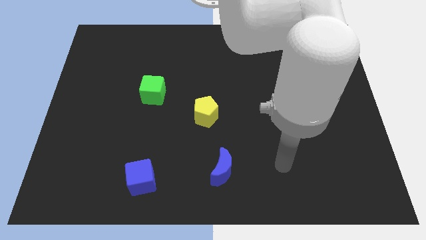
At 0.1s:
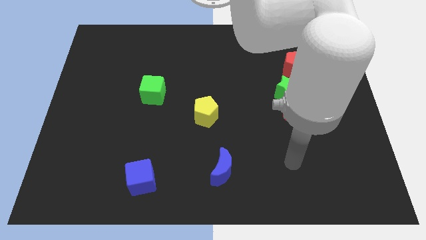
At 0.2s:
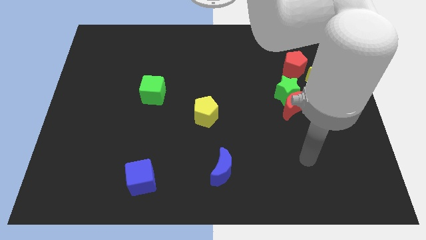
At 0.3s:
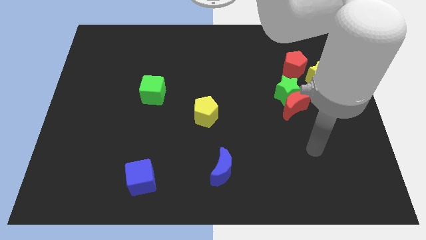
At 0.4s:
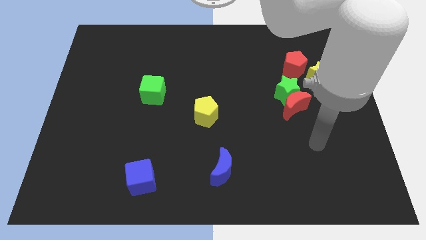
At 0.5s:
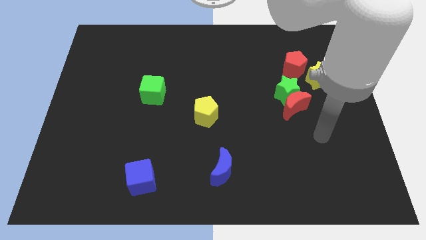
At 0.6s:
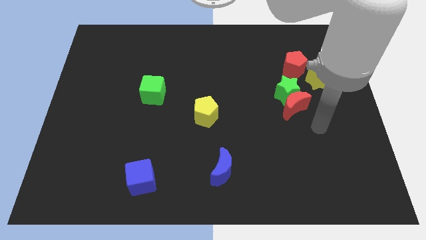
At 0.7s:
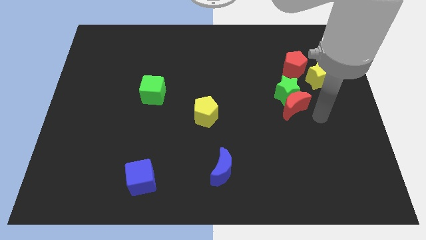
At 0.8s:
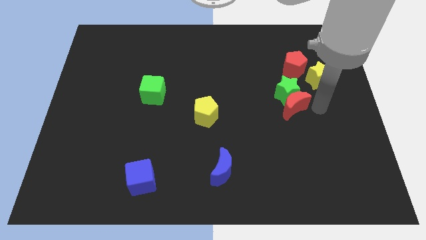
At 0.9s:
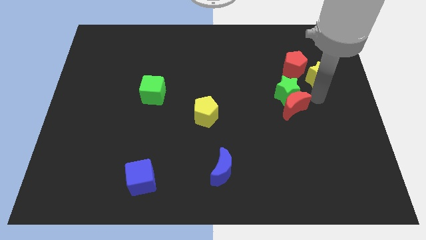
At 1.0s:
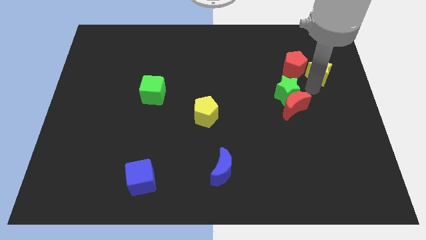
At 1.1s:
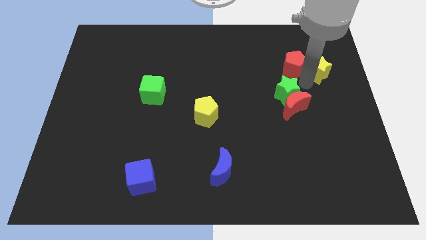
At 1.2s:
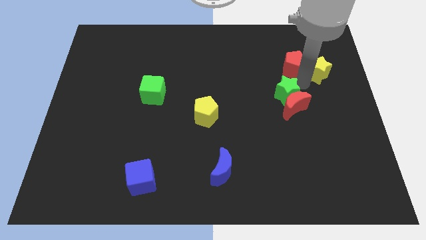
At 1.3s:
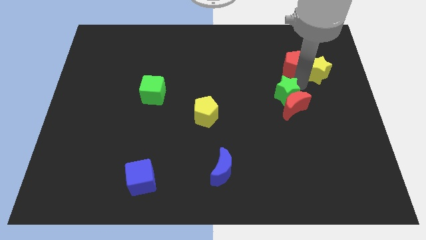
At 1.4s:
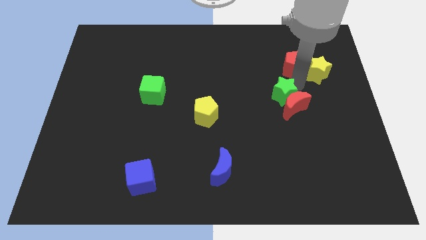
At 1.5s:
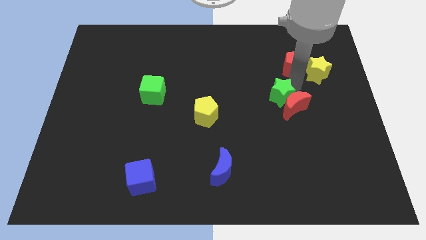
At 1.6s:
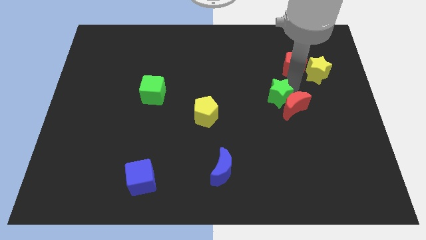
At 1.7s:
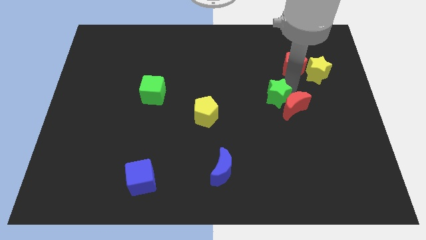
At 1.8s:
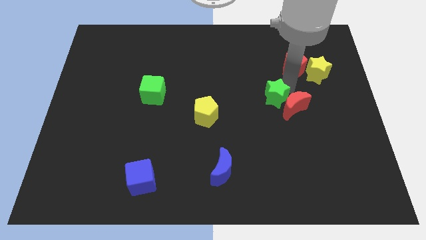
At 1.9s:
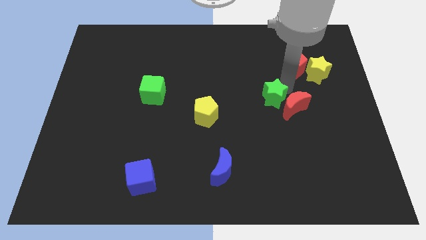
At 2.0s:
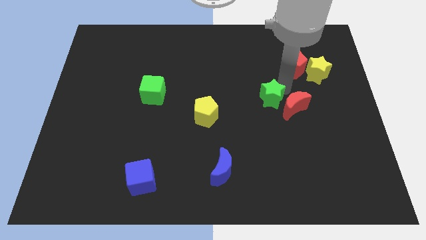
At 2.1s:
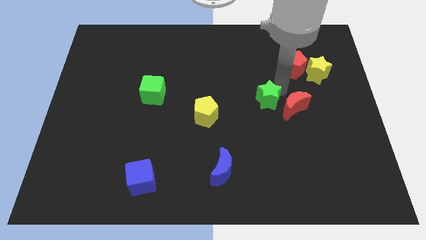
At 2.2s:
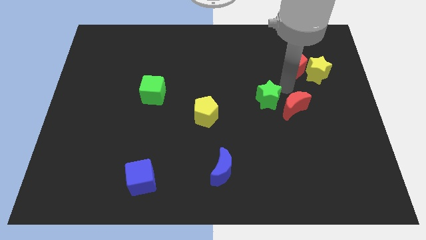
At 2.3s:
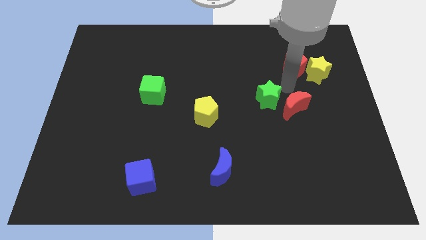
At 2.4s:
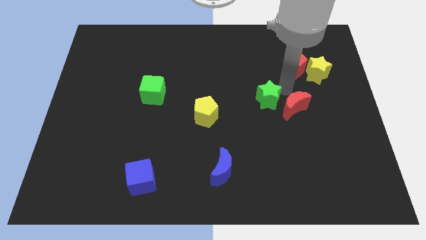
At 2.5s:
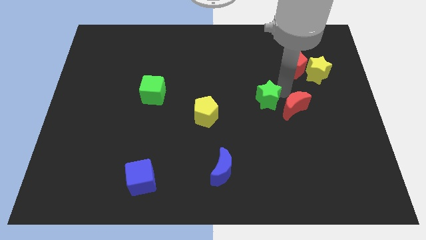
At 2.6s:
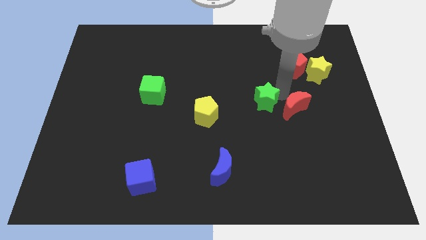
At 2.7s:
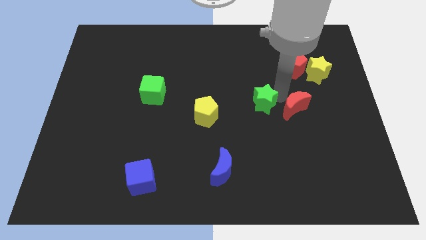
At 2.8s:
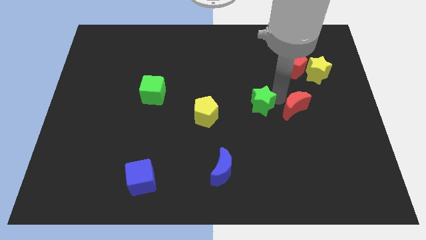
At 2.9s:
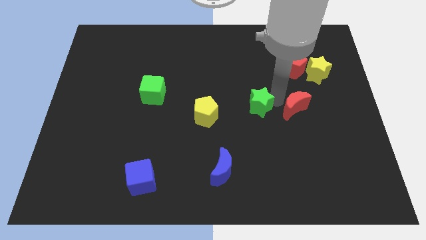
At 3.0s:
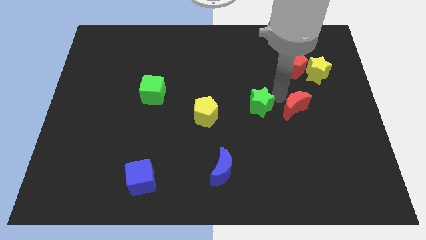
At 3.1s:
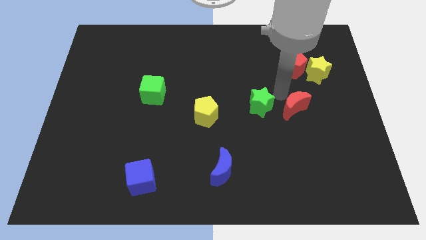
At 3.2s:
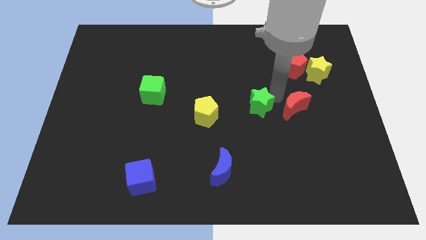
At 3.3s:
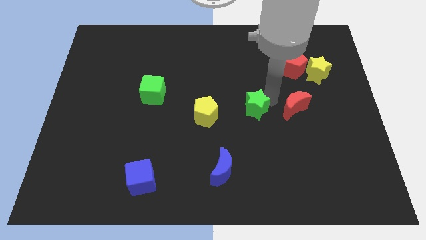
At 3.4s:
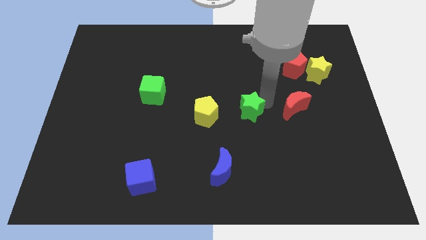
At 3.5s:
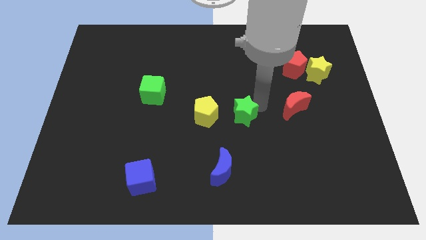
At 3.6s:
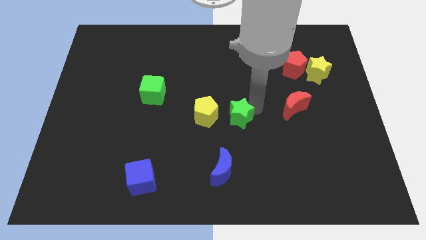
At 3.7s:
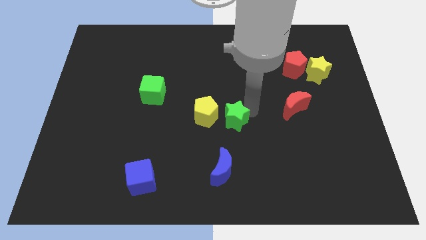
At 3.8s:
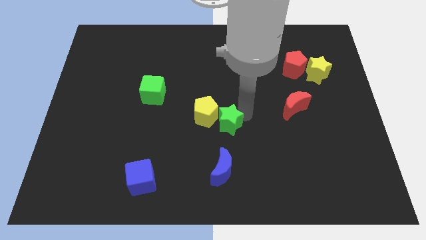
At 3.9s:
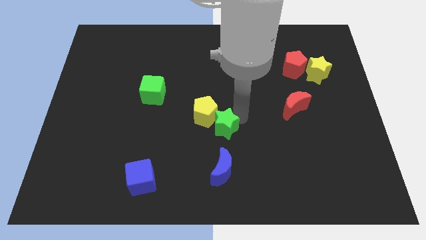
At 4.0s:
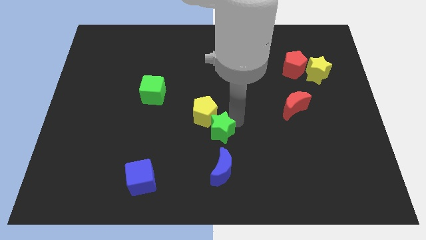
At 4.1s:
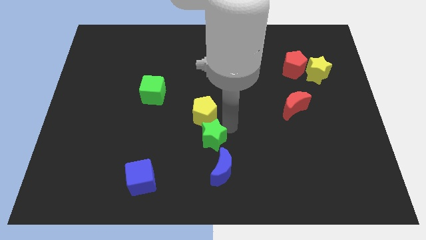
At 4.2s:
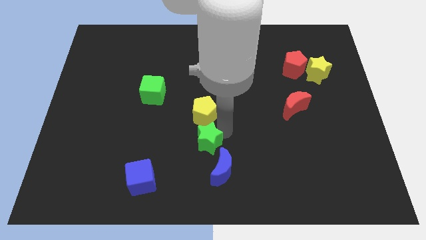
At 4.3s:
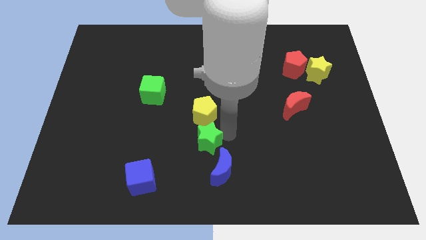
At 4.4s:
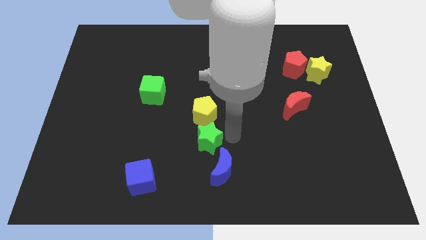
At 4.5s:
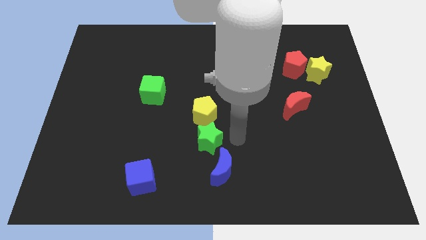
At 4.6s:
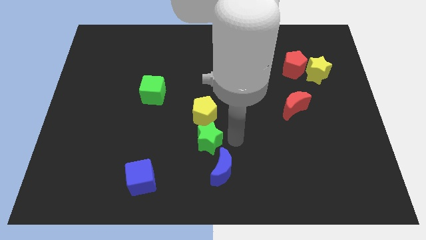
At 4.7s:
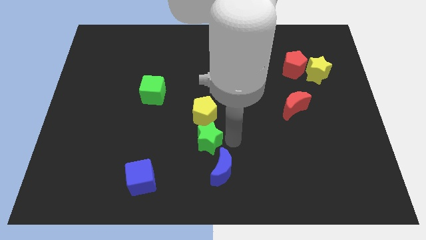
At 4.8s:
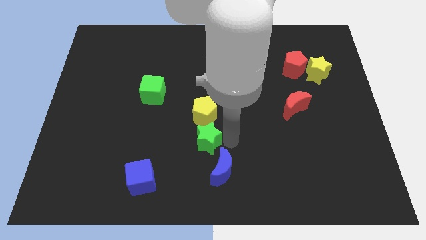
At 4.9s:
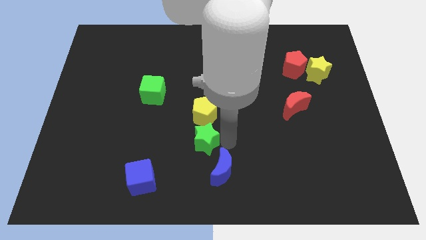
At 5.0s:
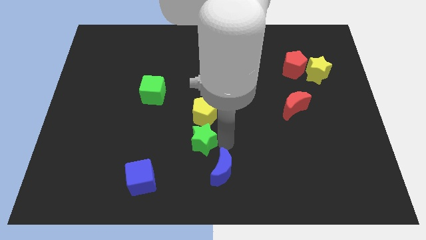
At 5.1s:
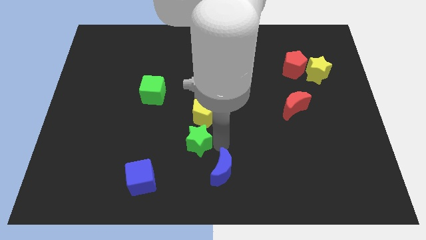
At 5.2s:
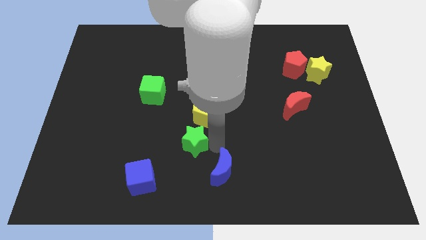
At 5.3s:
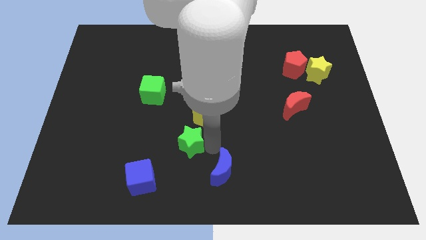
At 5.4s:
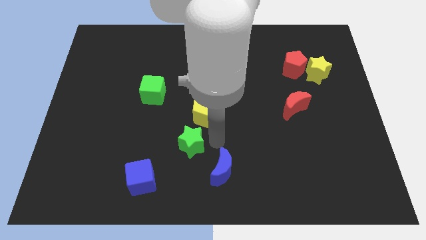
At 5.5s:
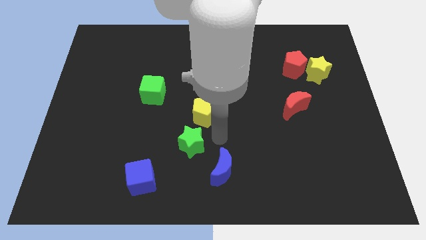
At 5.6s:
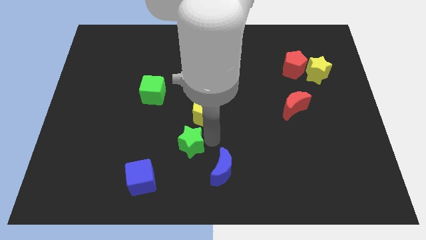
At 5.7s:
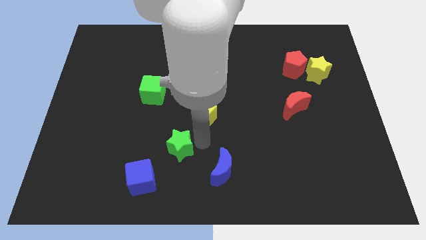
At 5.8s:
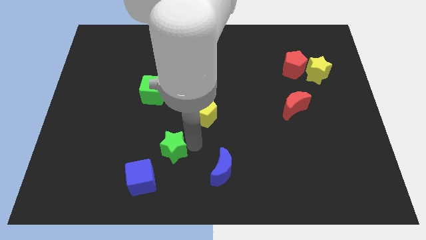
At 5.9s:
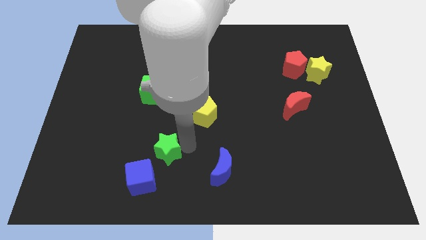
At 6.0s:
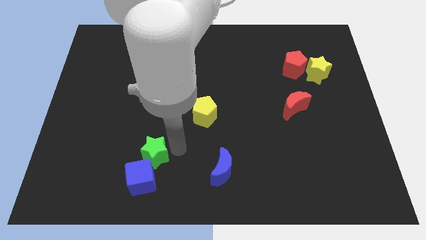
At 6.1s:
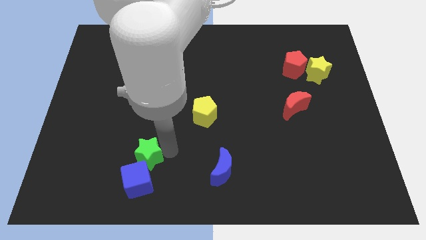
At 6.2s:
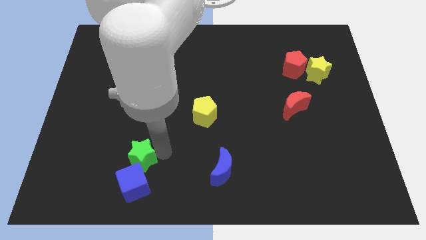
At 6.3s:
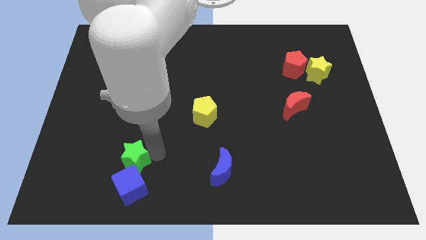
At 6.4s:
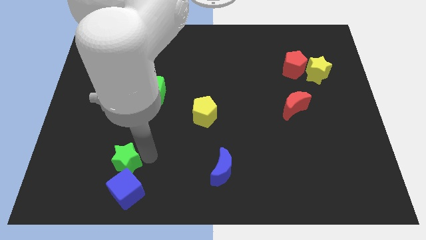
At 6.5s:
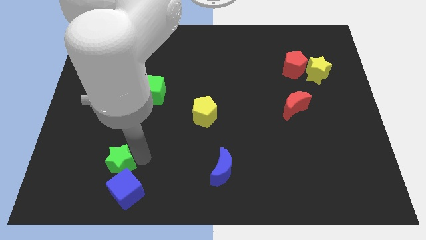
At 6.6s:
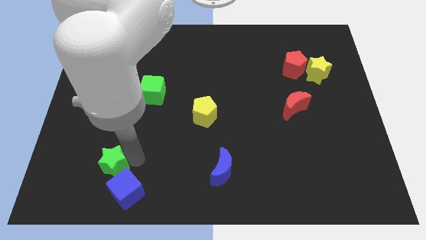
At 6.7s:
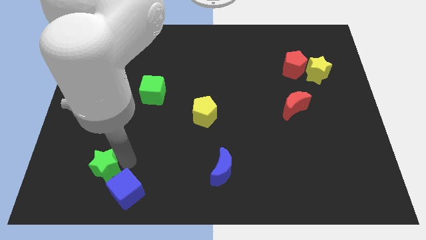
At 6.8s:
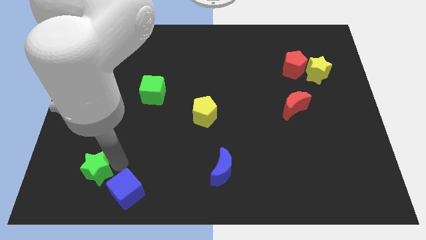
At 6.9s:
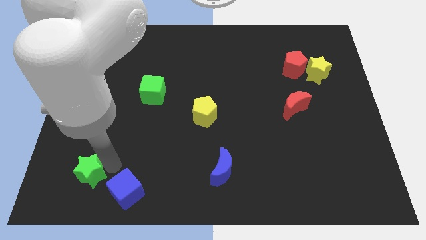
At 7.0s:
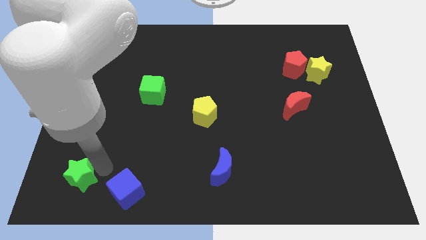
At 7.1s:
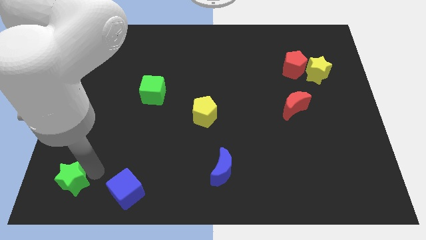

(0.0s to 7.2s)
move the green star to the lower left corner
